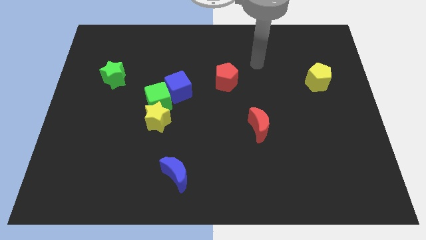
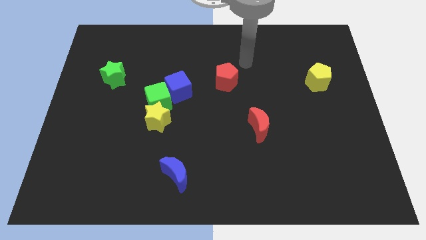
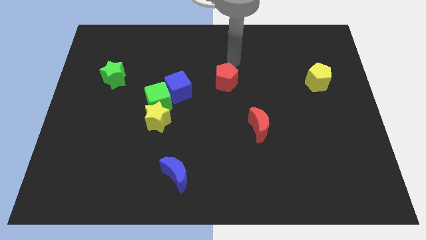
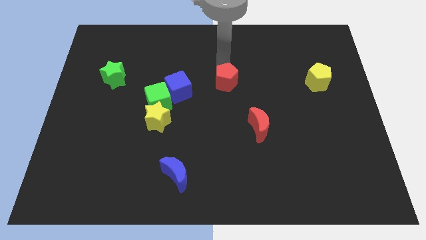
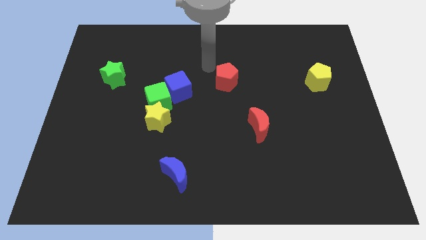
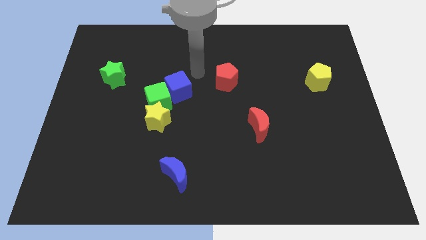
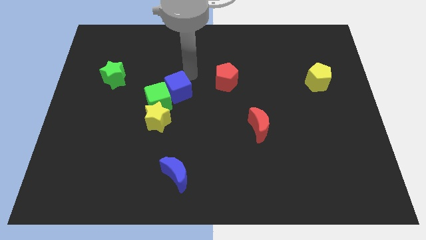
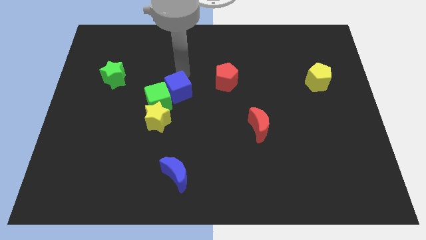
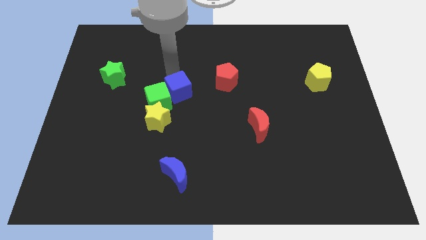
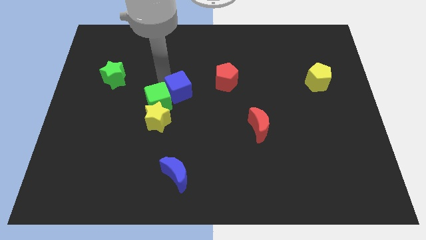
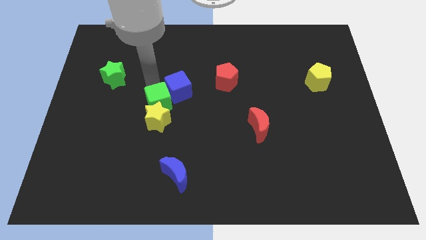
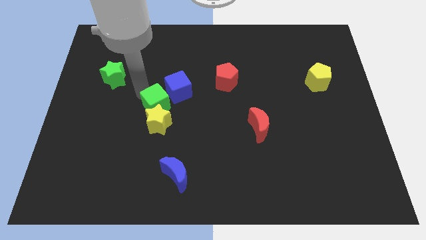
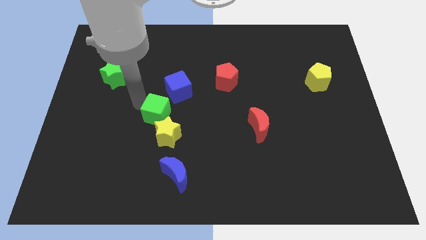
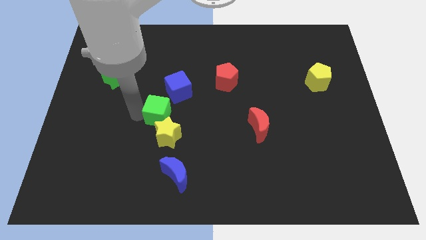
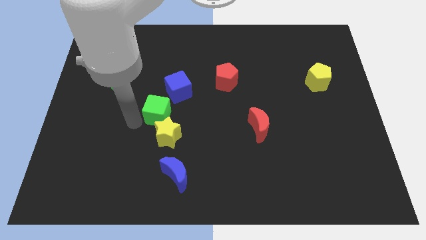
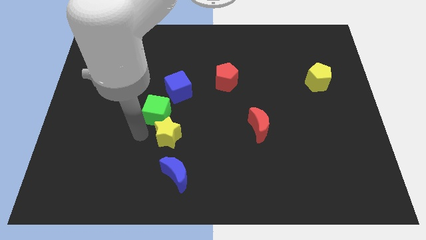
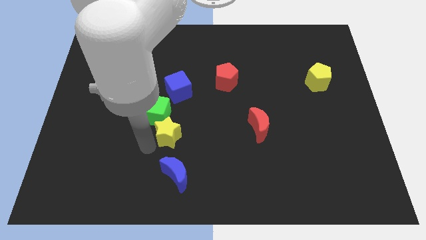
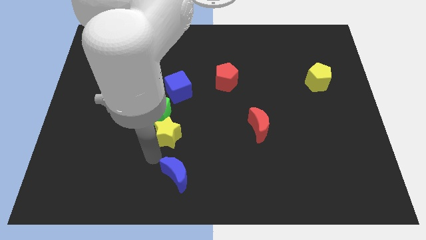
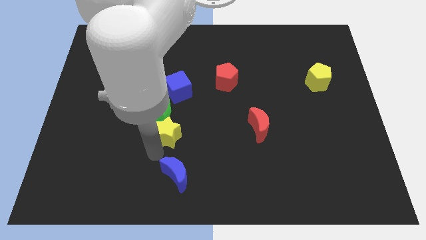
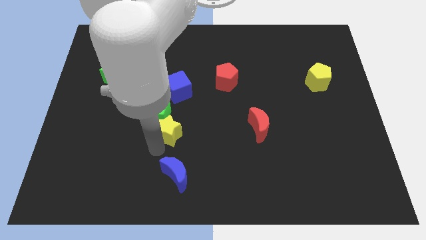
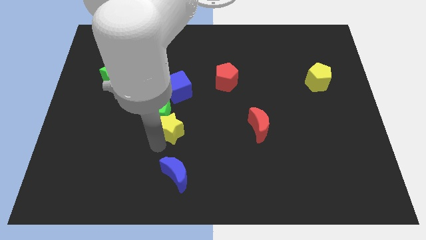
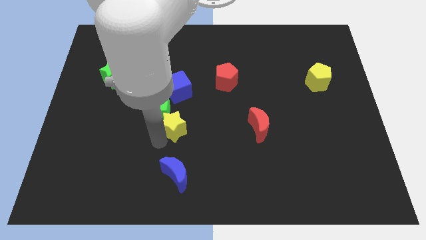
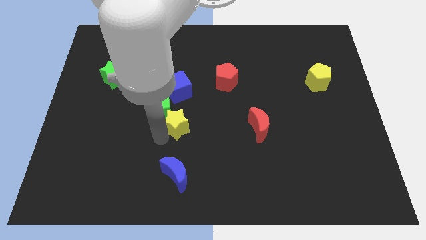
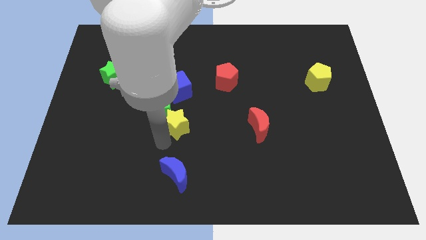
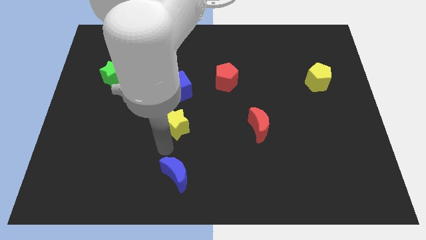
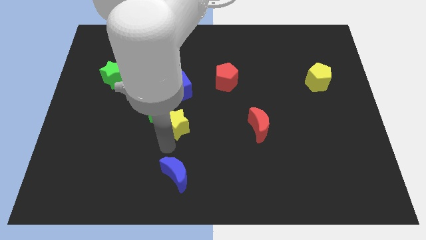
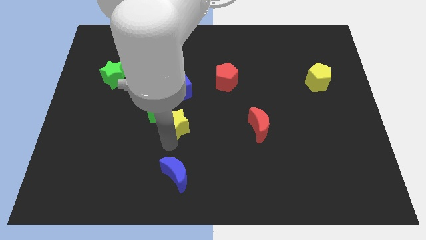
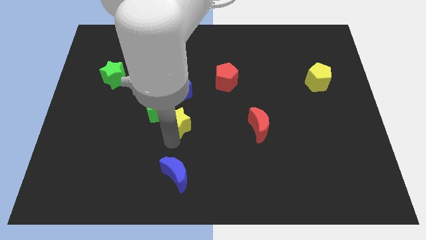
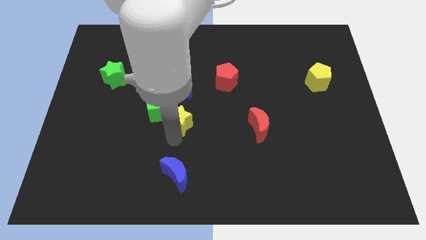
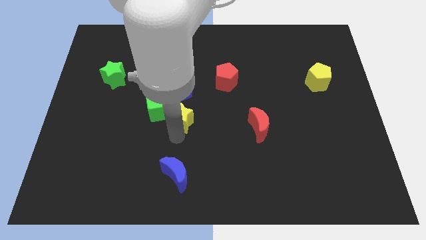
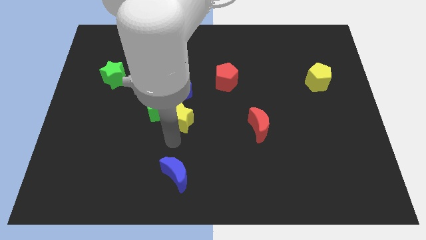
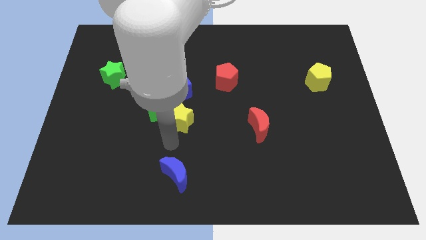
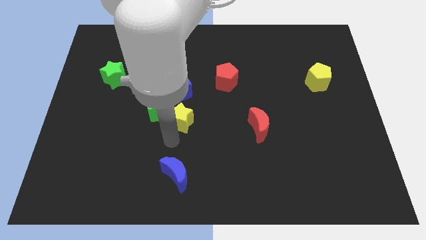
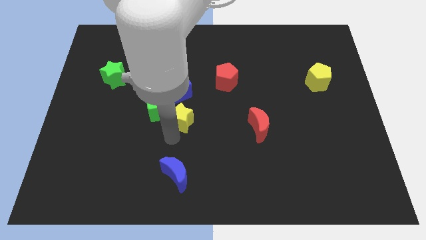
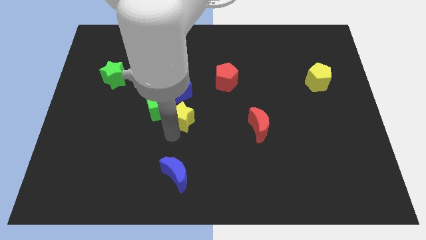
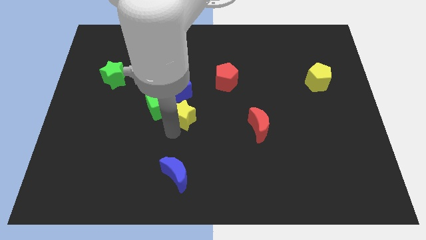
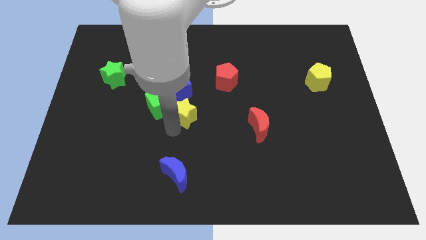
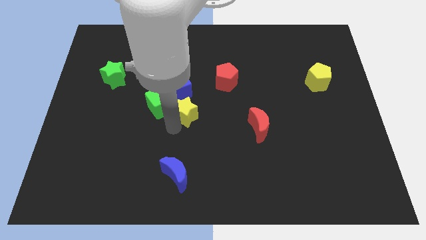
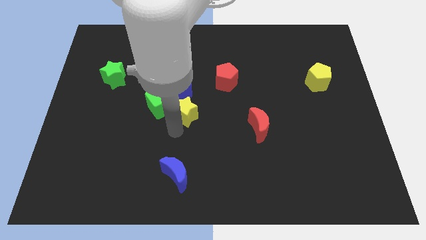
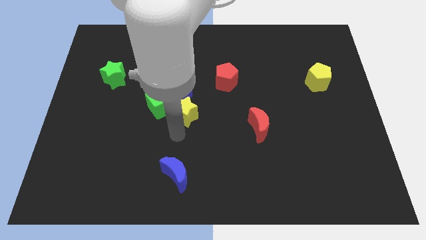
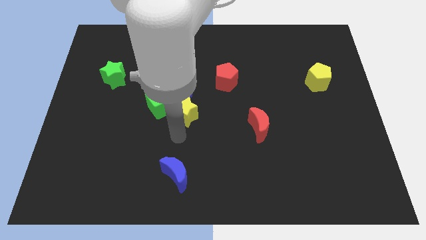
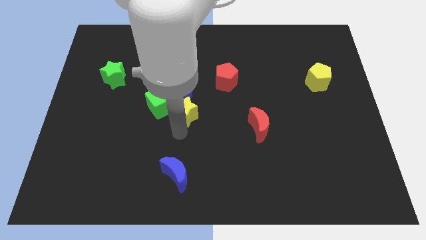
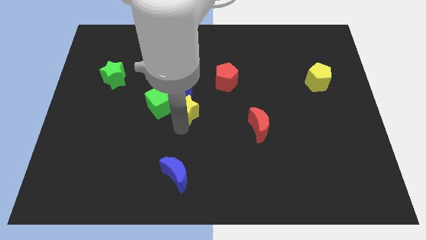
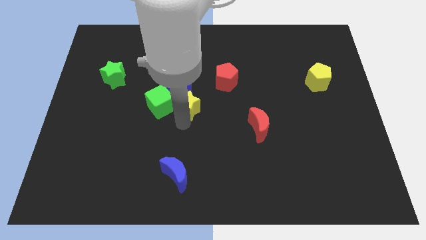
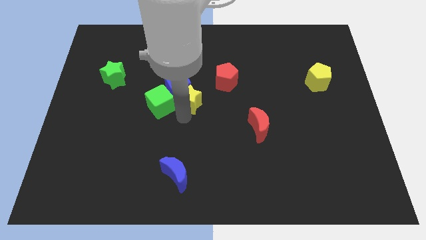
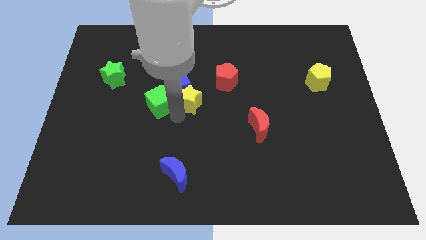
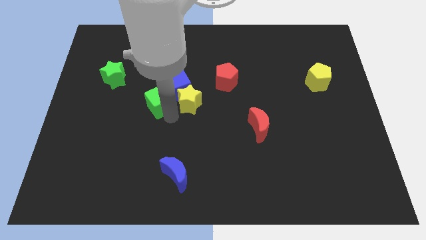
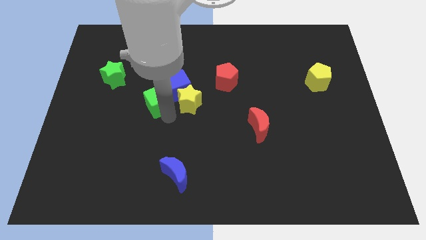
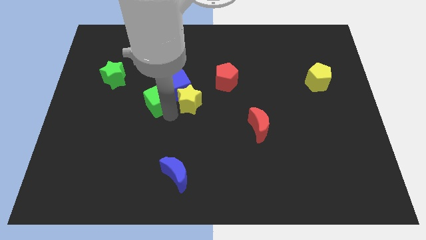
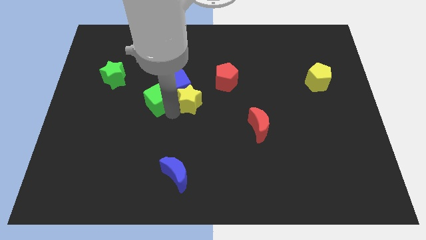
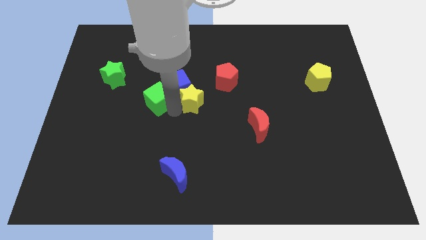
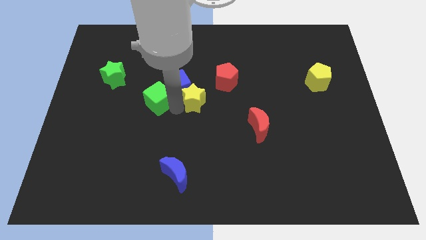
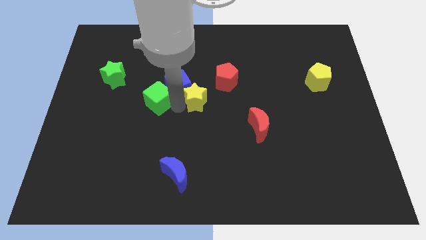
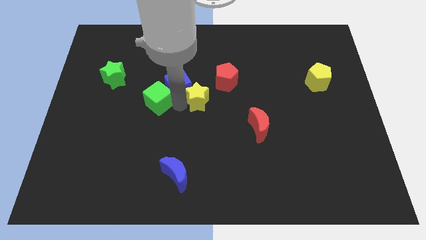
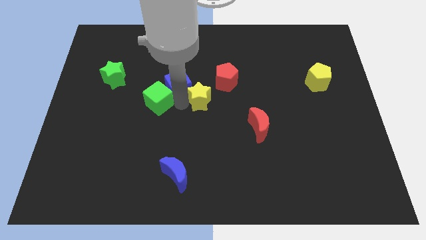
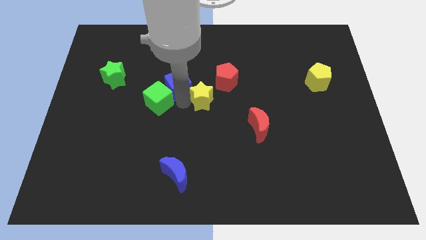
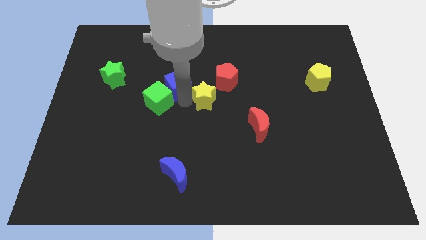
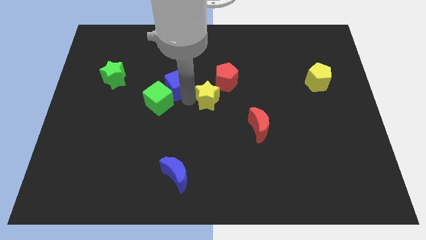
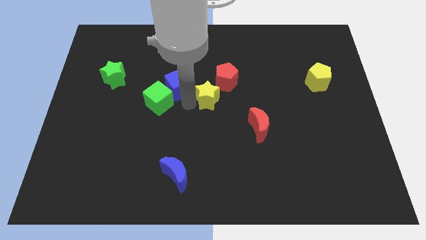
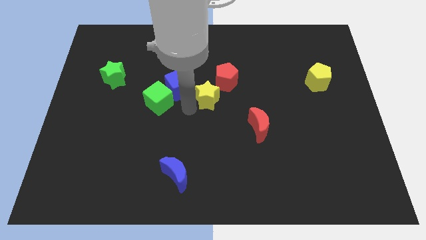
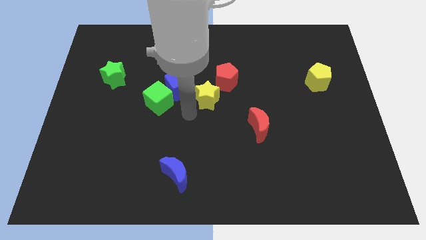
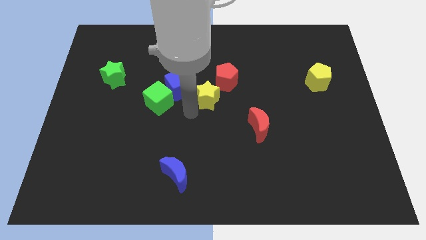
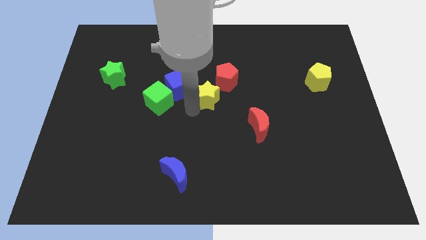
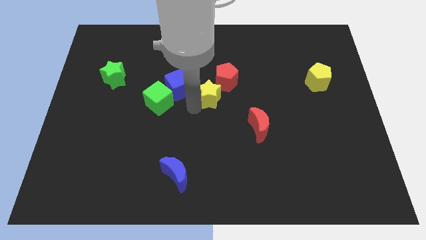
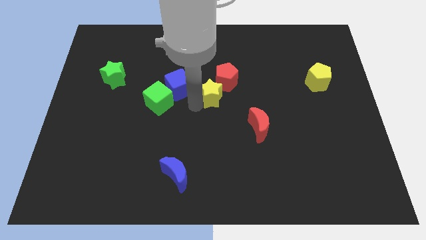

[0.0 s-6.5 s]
slide the yellow star to the red pentagon

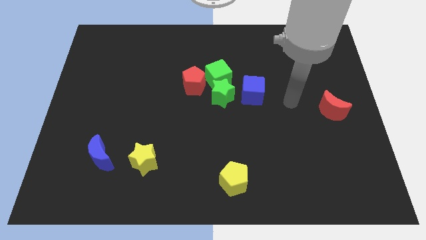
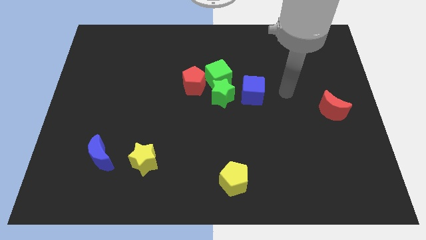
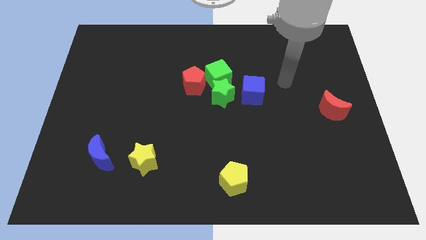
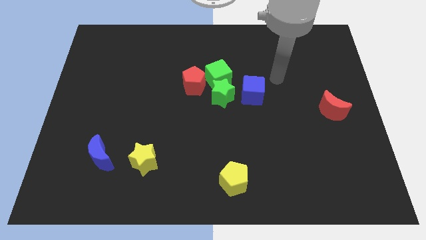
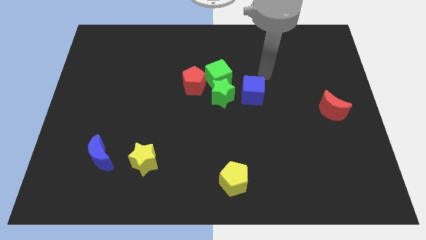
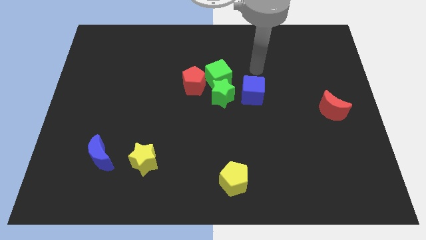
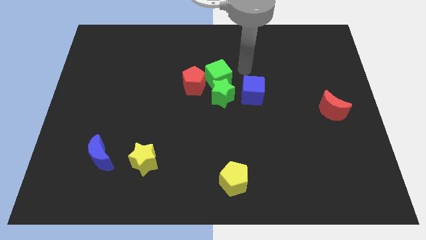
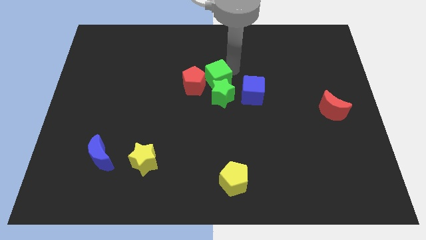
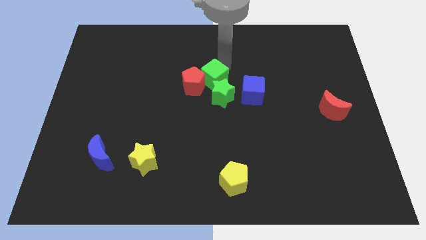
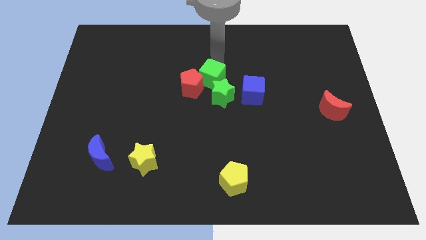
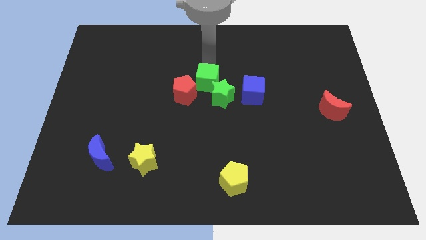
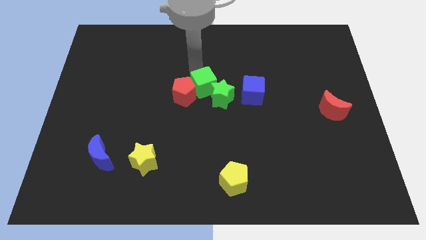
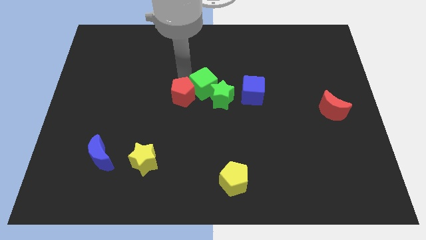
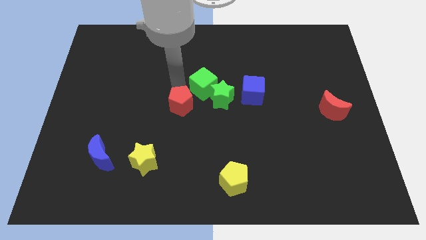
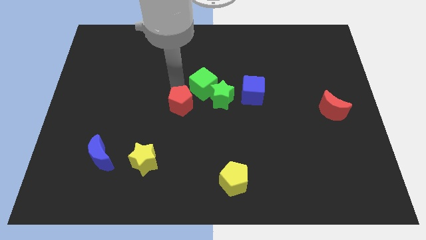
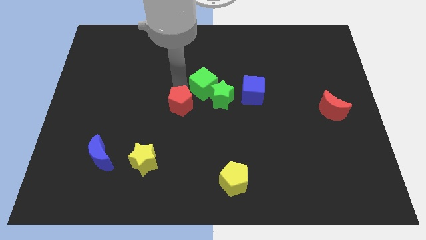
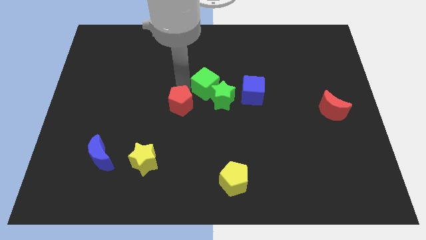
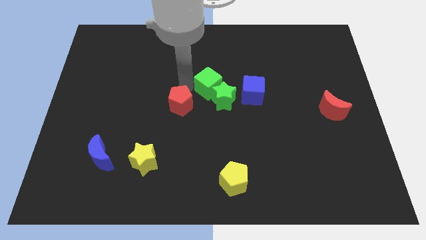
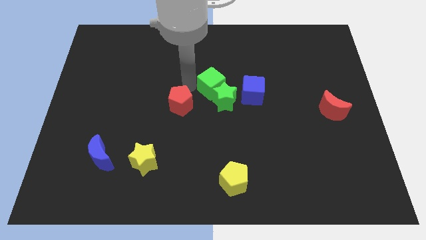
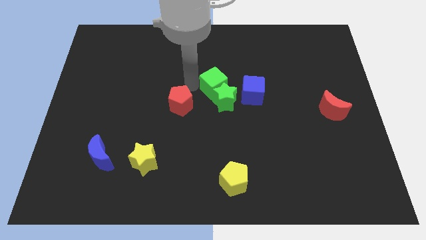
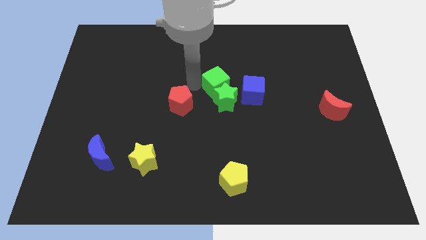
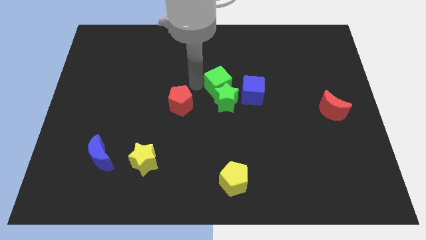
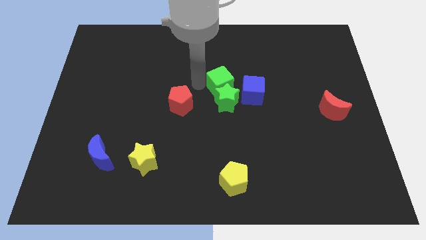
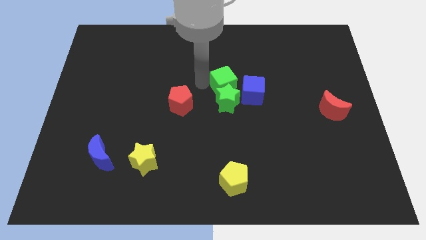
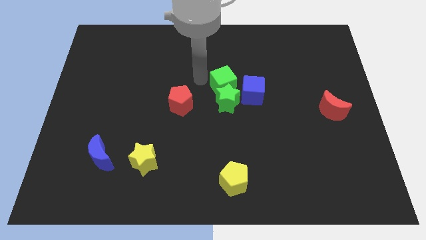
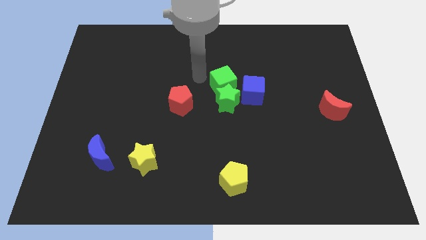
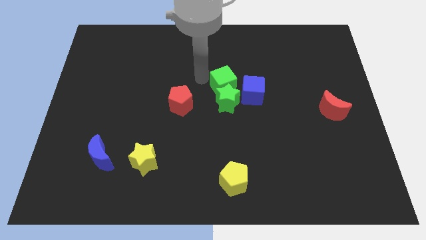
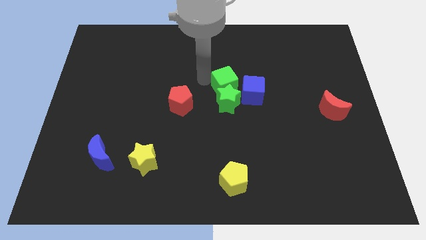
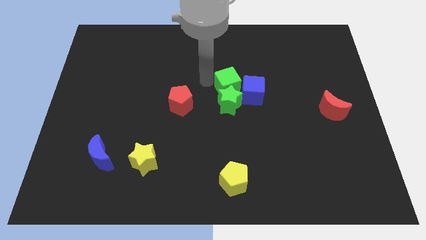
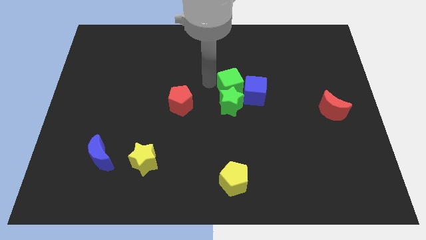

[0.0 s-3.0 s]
put the green cube next to the blue cube
